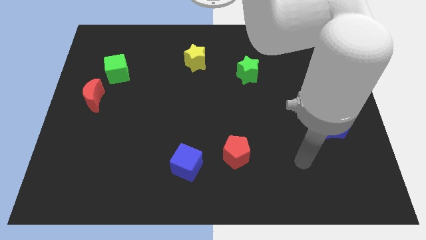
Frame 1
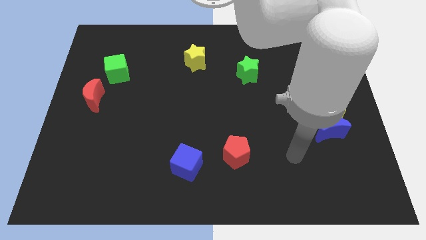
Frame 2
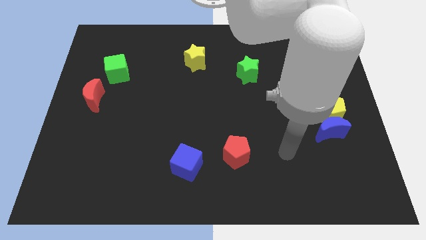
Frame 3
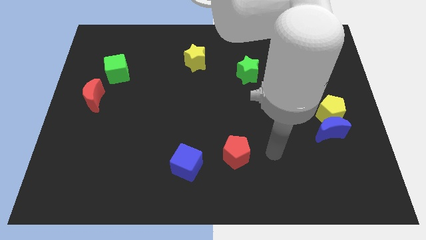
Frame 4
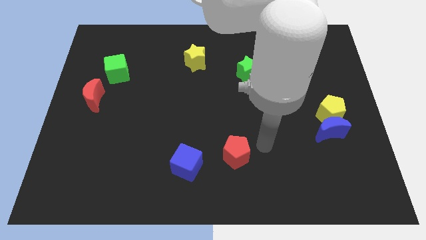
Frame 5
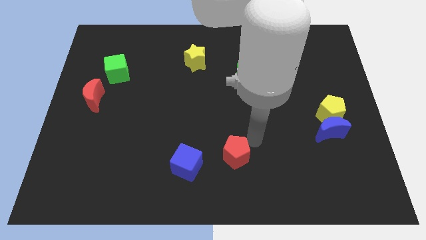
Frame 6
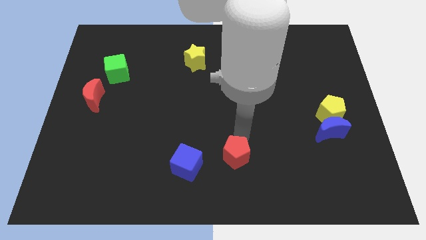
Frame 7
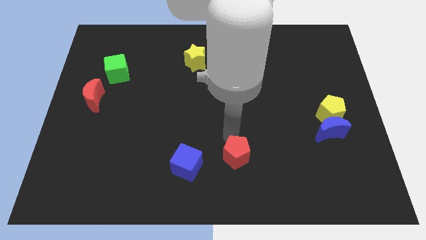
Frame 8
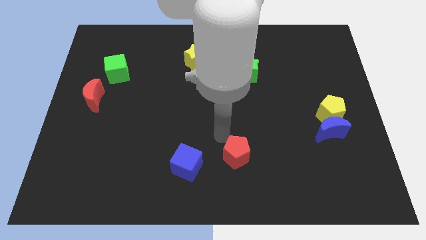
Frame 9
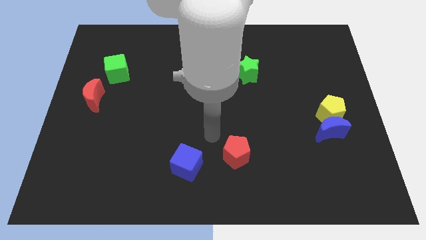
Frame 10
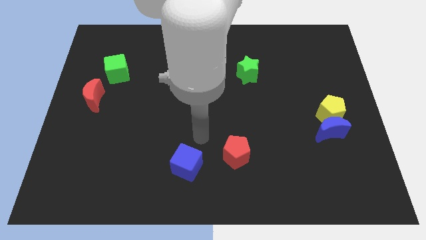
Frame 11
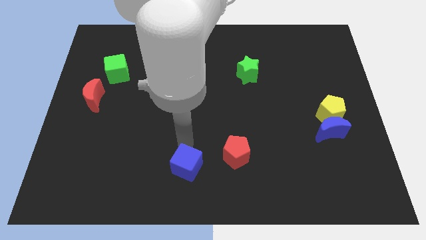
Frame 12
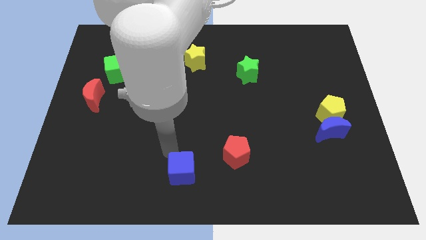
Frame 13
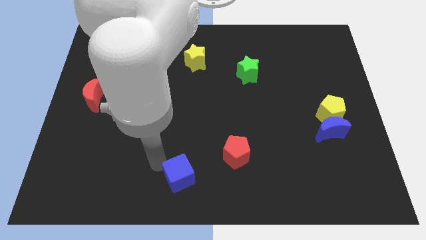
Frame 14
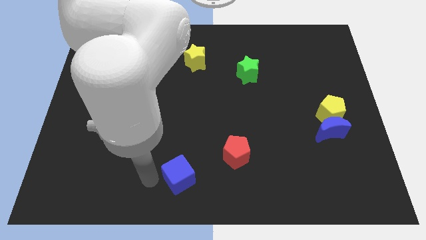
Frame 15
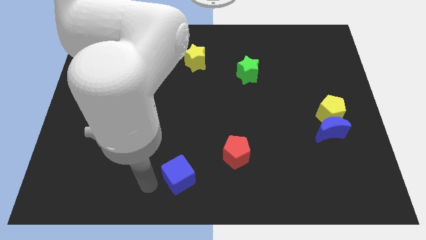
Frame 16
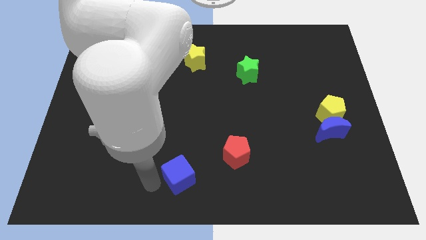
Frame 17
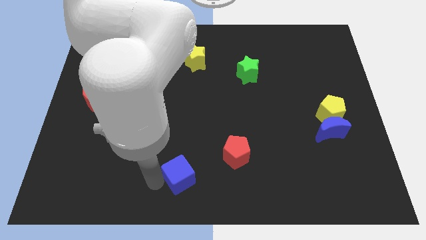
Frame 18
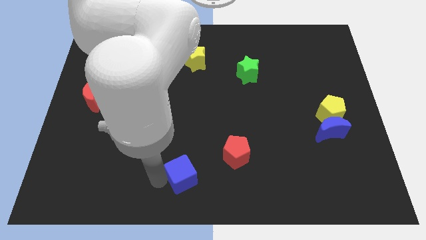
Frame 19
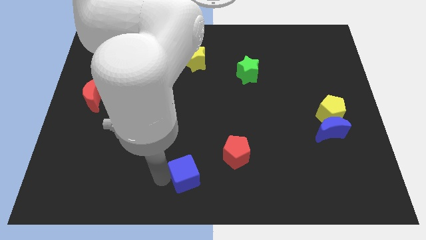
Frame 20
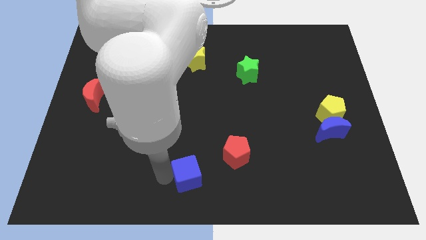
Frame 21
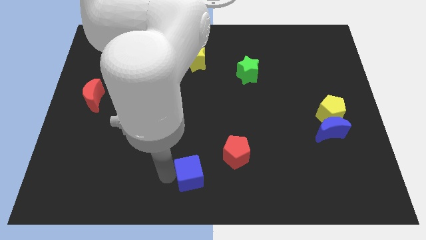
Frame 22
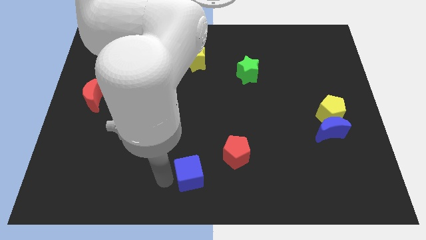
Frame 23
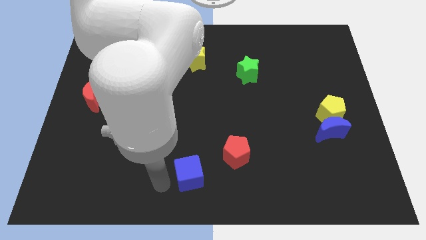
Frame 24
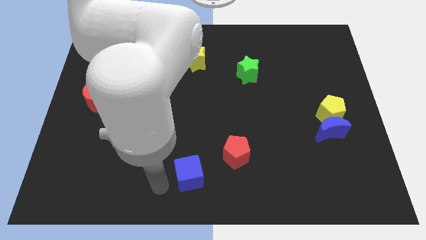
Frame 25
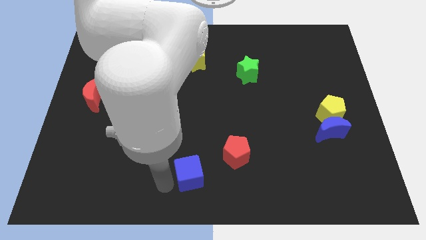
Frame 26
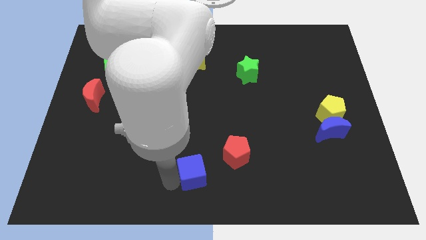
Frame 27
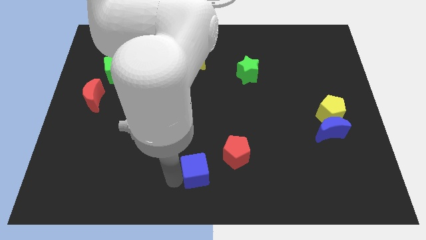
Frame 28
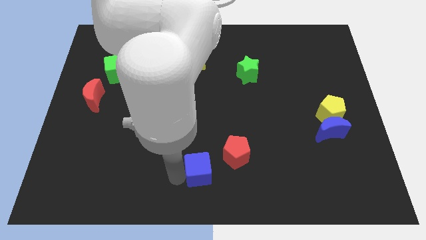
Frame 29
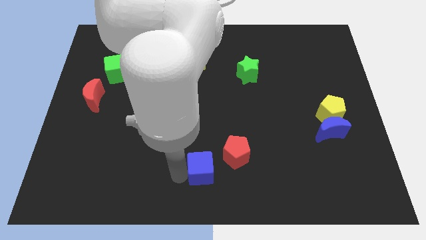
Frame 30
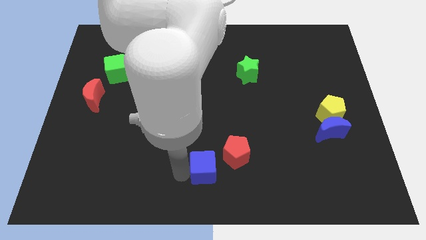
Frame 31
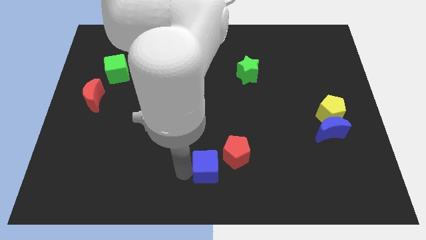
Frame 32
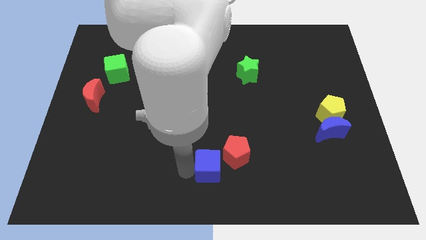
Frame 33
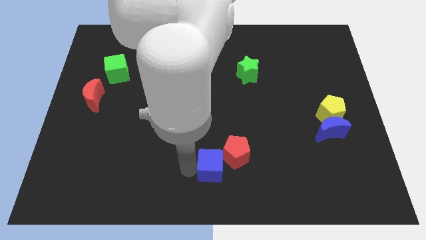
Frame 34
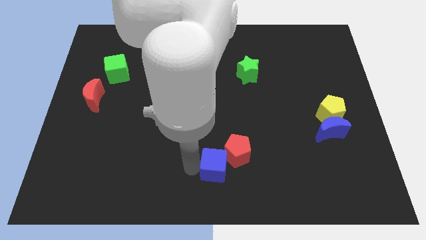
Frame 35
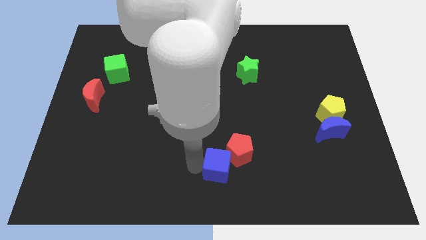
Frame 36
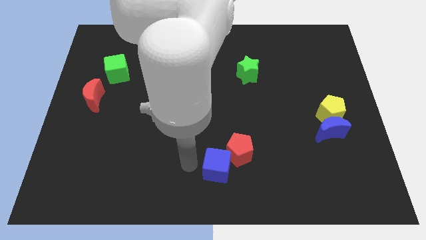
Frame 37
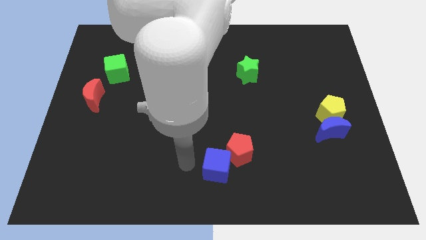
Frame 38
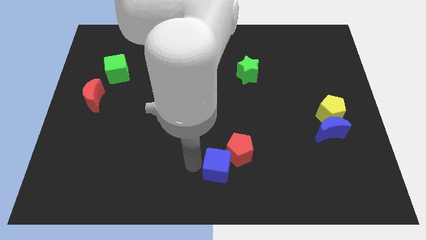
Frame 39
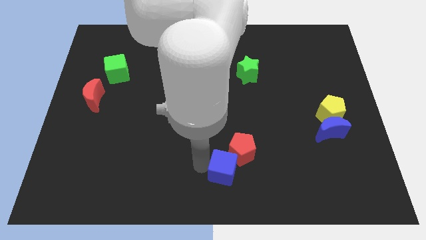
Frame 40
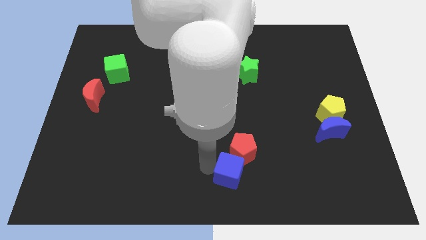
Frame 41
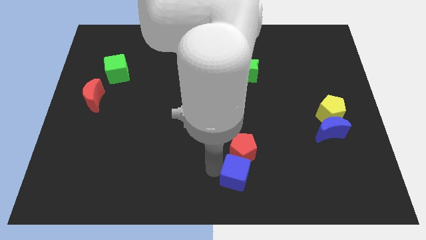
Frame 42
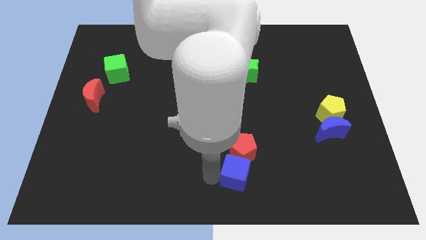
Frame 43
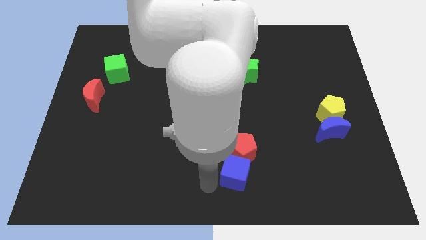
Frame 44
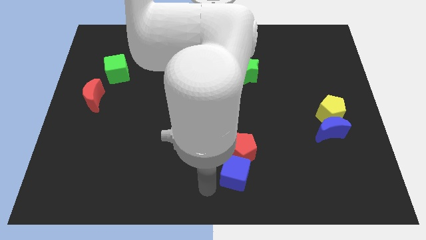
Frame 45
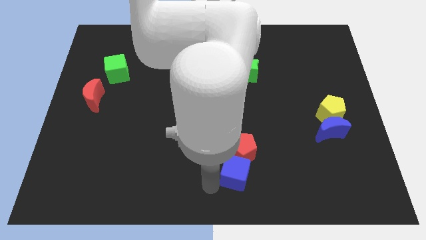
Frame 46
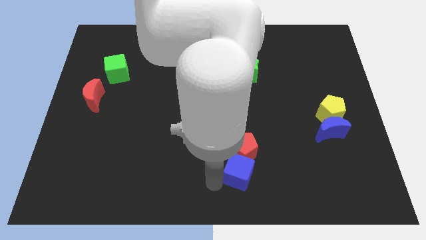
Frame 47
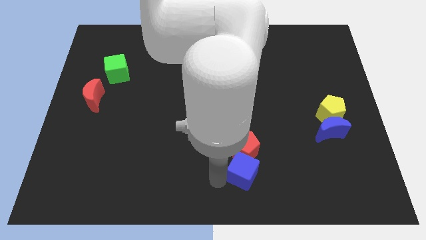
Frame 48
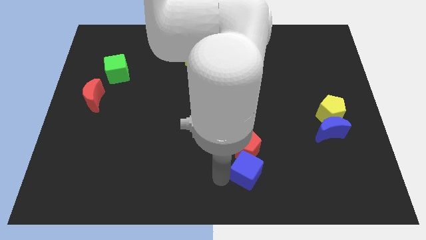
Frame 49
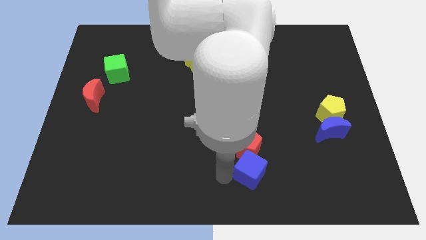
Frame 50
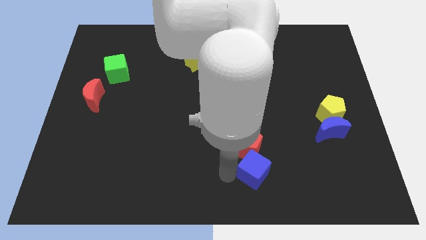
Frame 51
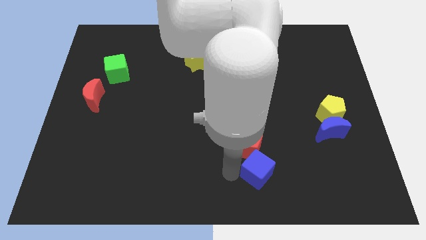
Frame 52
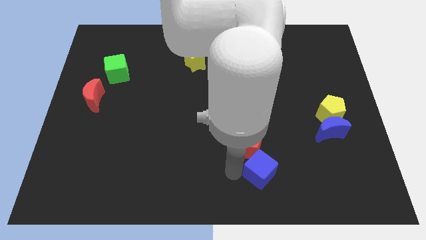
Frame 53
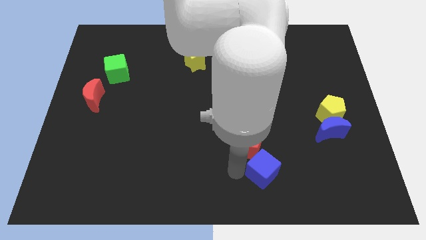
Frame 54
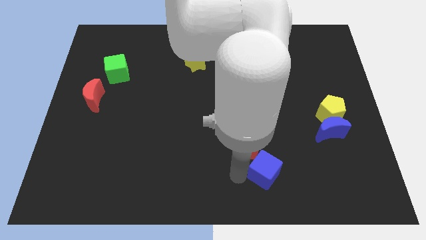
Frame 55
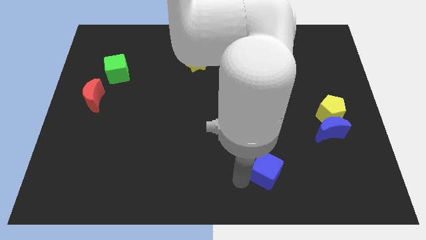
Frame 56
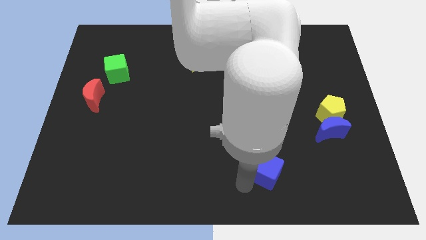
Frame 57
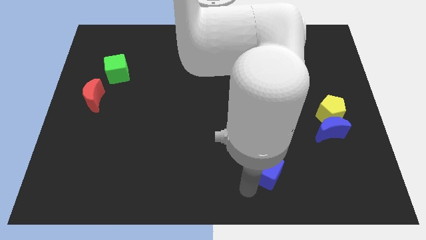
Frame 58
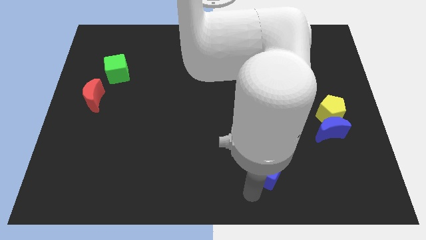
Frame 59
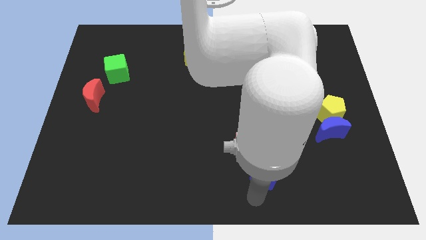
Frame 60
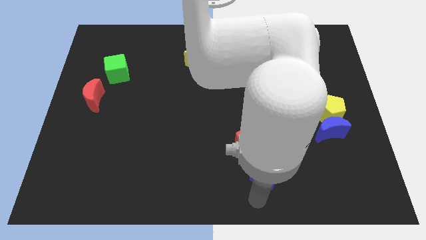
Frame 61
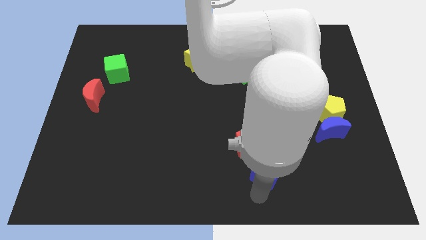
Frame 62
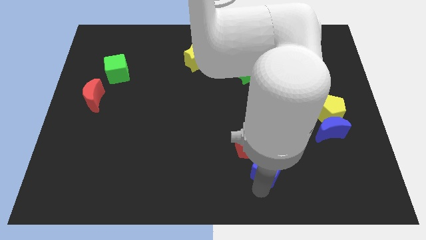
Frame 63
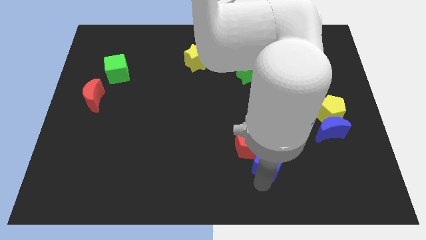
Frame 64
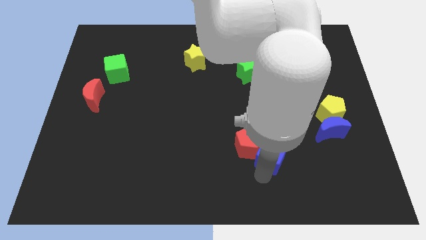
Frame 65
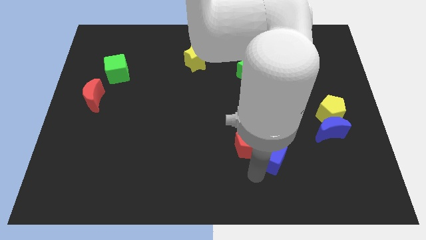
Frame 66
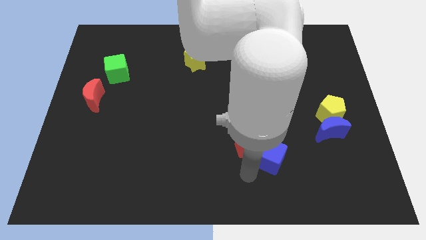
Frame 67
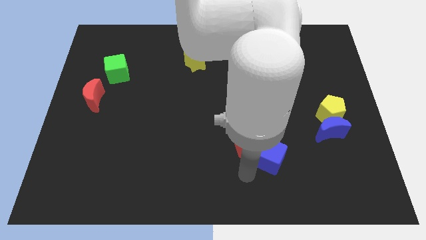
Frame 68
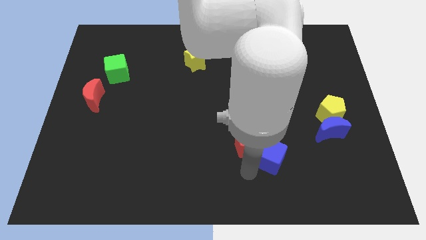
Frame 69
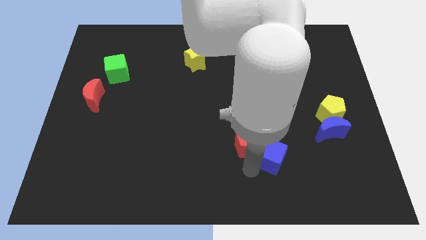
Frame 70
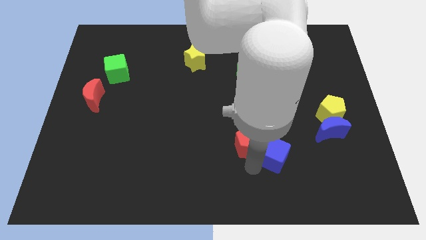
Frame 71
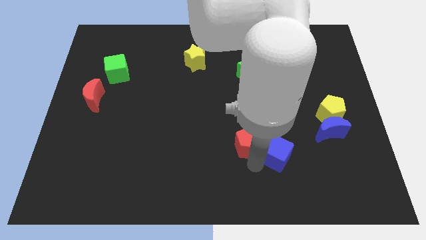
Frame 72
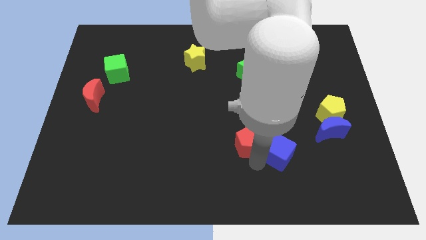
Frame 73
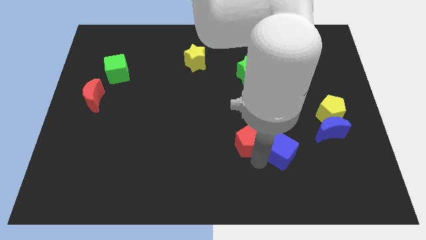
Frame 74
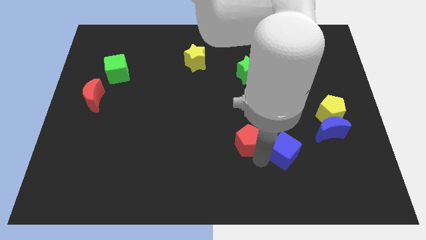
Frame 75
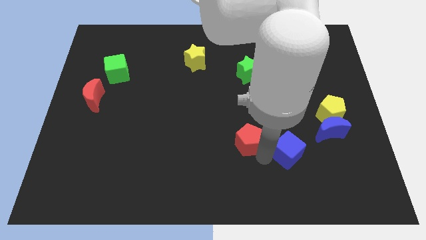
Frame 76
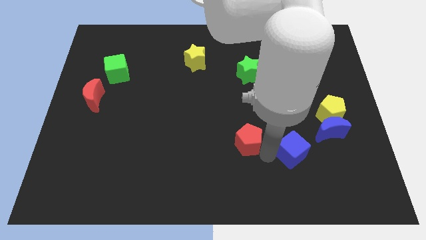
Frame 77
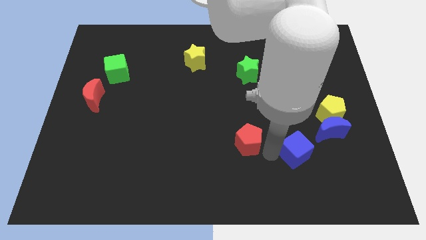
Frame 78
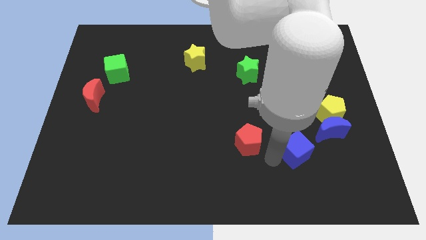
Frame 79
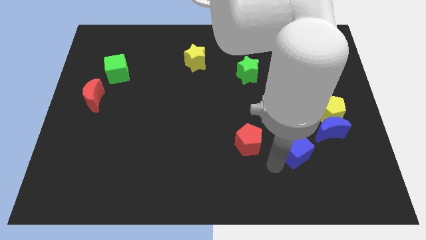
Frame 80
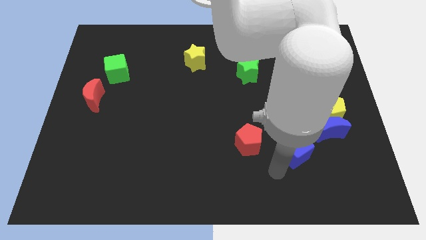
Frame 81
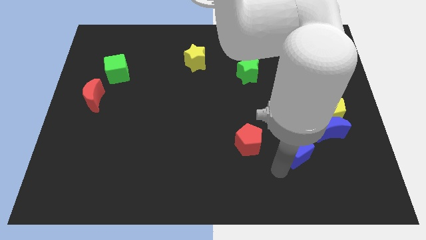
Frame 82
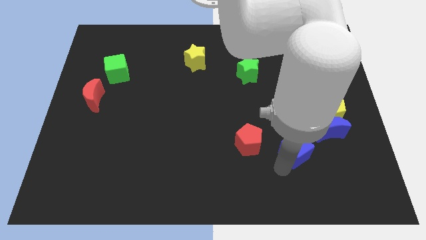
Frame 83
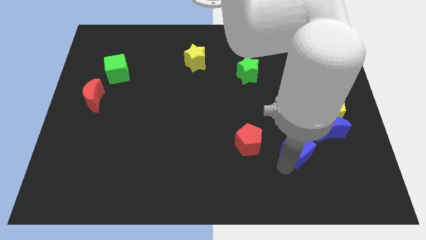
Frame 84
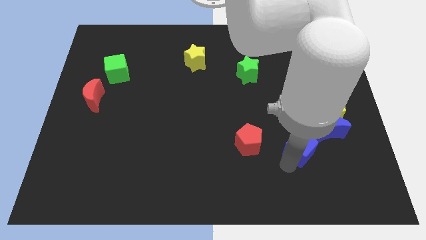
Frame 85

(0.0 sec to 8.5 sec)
move the blue cube to the bottom left side of the yellow pentagon
